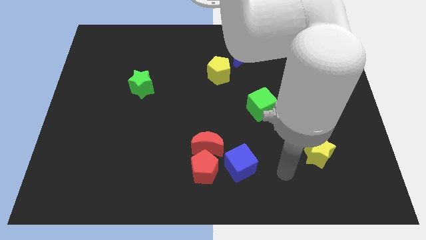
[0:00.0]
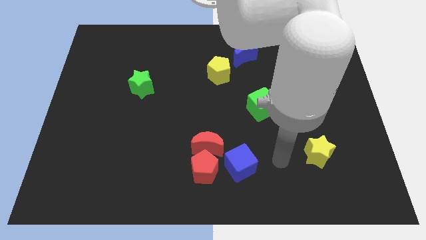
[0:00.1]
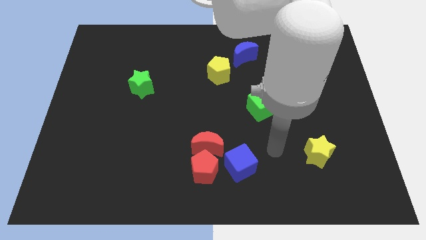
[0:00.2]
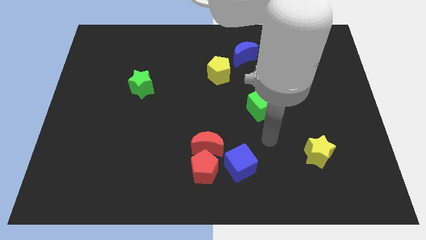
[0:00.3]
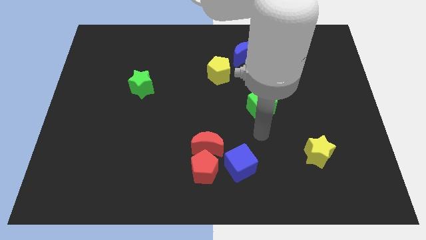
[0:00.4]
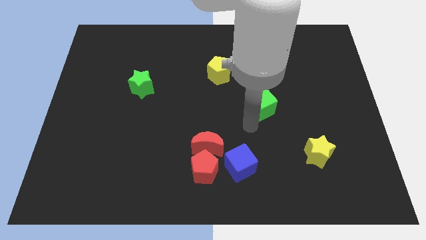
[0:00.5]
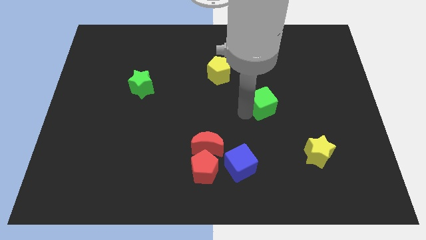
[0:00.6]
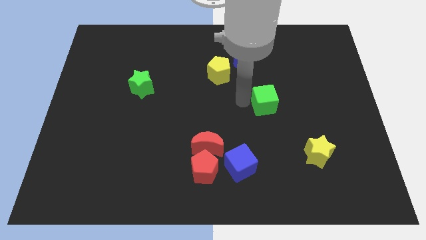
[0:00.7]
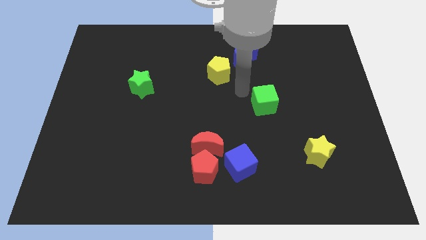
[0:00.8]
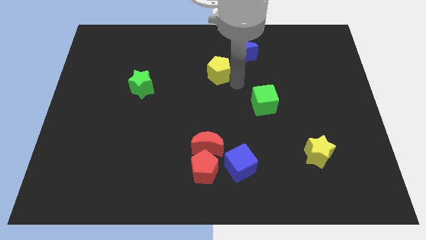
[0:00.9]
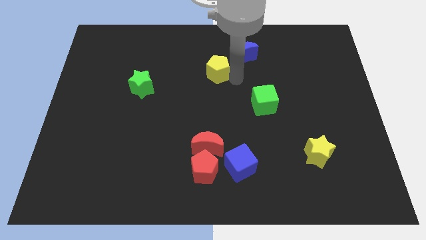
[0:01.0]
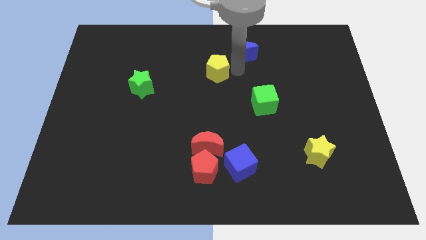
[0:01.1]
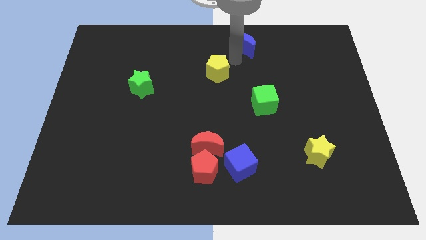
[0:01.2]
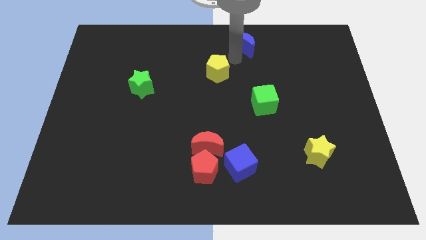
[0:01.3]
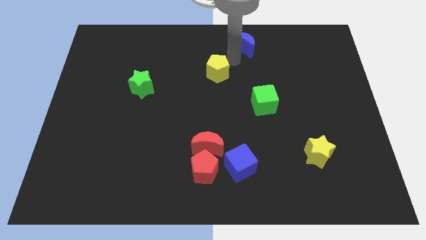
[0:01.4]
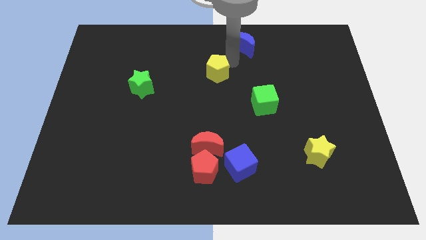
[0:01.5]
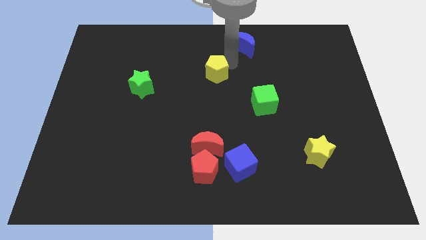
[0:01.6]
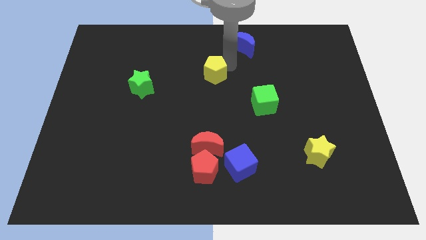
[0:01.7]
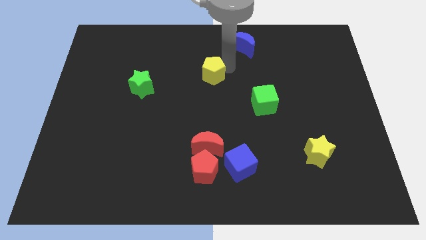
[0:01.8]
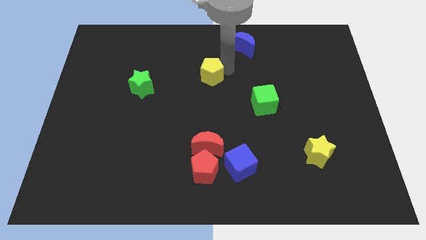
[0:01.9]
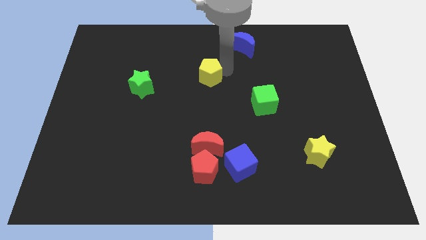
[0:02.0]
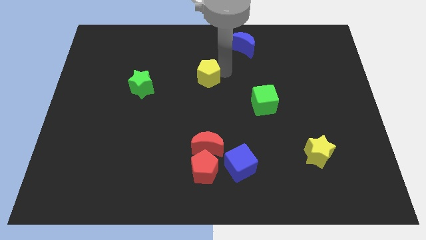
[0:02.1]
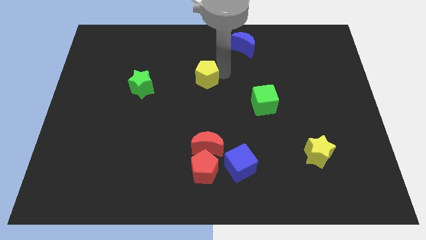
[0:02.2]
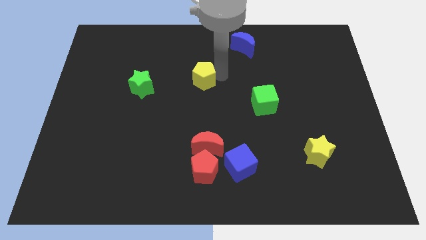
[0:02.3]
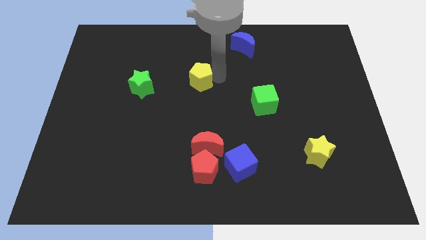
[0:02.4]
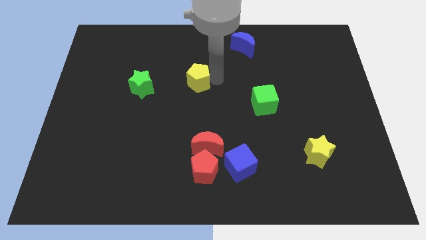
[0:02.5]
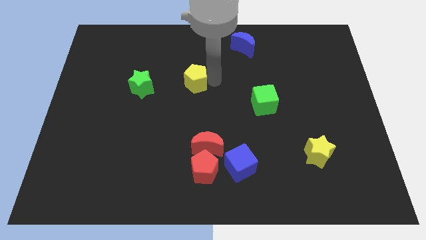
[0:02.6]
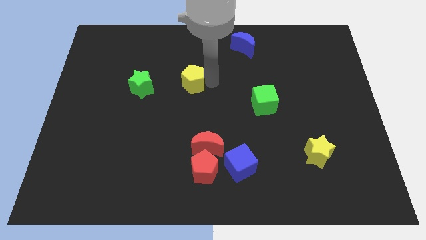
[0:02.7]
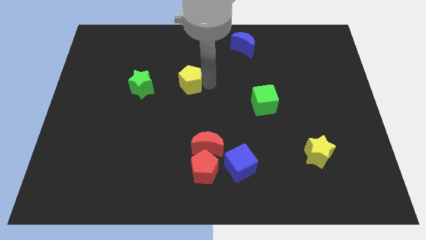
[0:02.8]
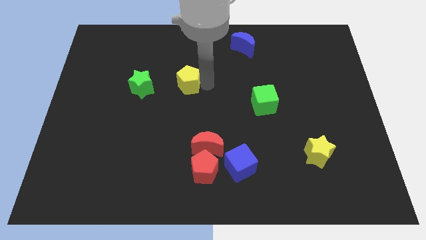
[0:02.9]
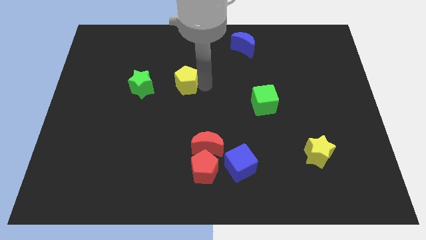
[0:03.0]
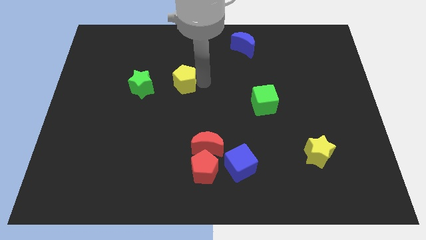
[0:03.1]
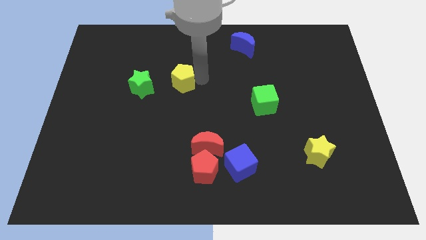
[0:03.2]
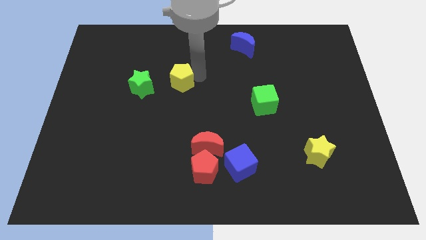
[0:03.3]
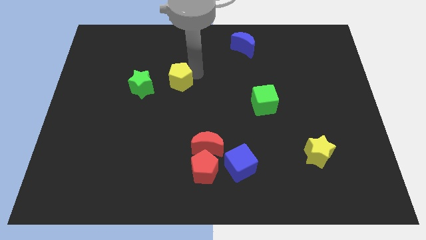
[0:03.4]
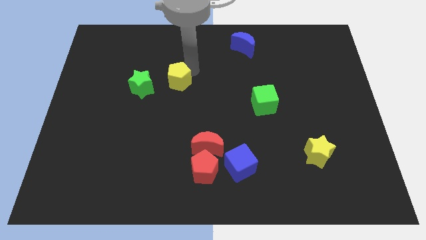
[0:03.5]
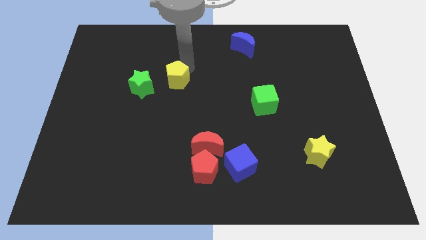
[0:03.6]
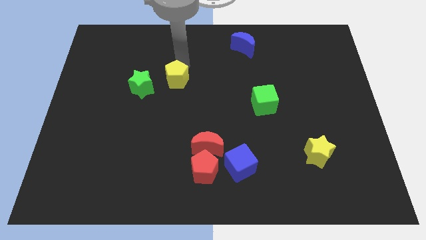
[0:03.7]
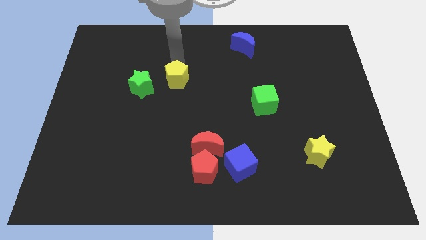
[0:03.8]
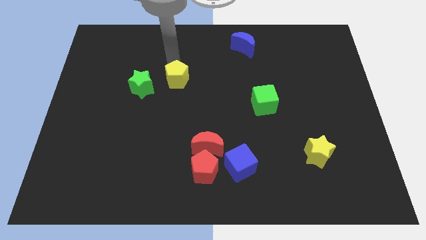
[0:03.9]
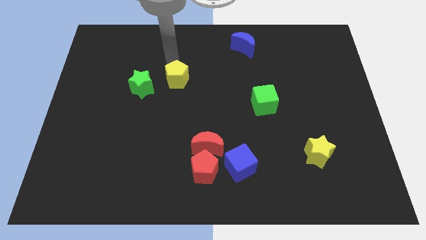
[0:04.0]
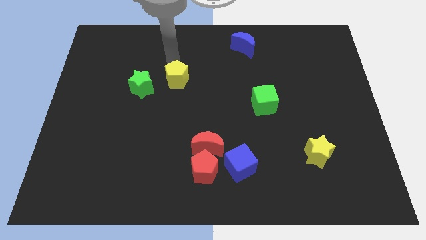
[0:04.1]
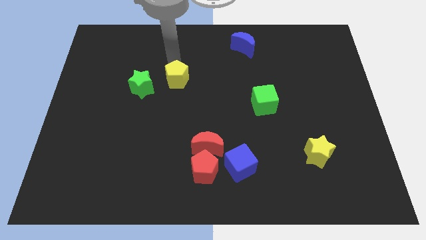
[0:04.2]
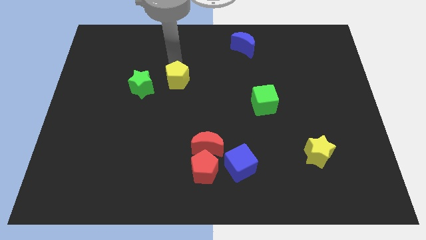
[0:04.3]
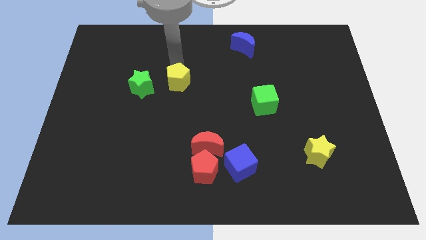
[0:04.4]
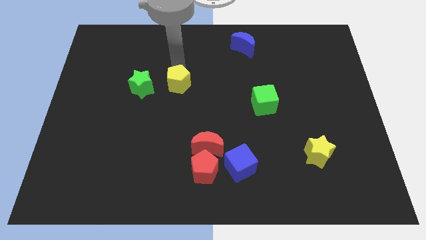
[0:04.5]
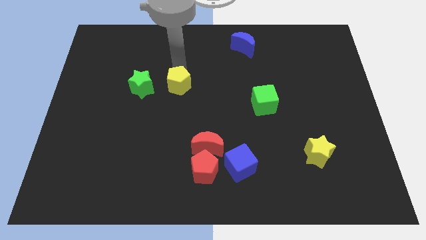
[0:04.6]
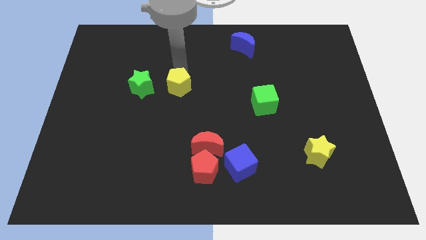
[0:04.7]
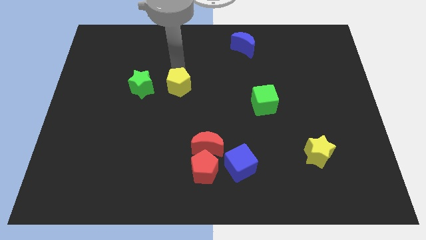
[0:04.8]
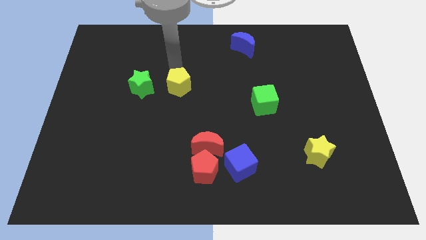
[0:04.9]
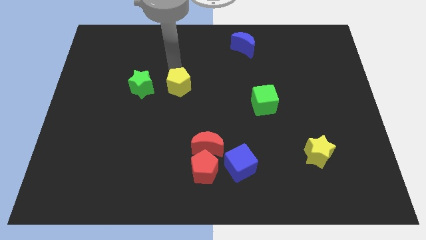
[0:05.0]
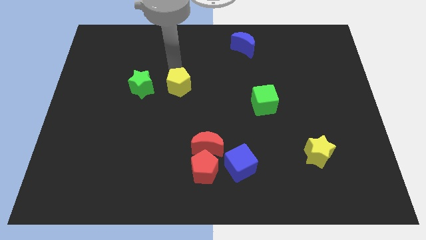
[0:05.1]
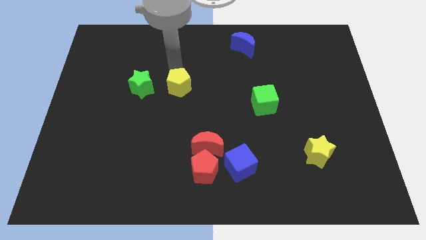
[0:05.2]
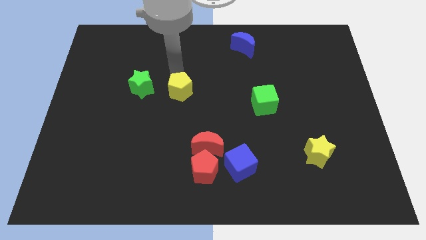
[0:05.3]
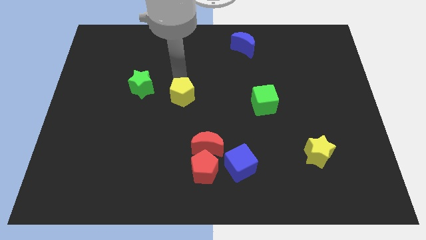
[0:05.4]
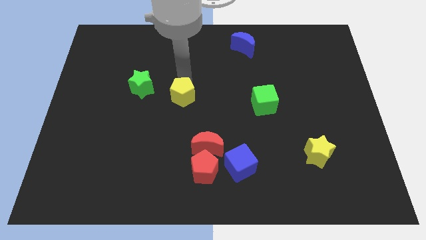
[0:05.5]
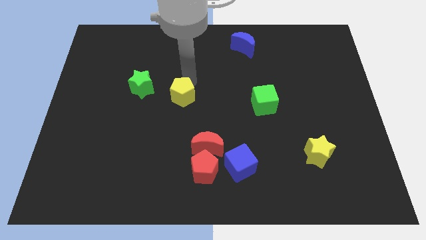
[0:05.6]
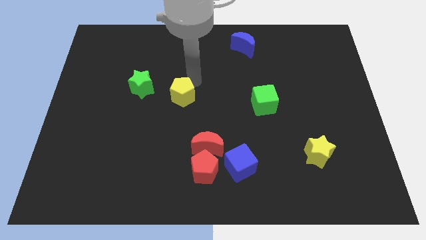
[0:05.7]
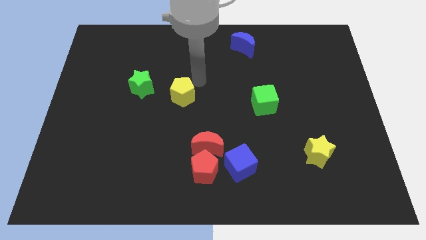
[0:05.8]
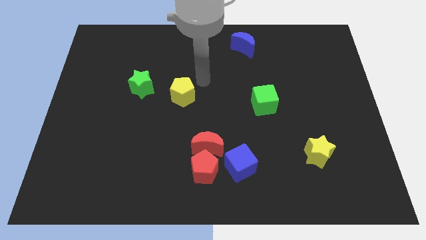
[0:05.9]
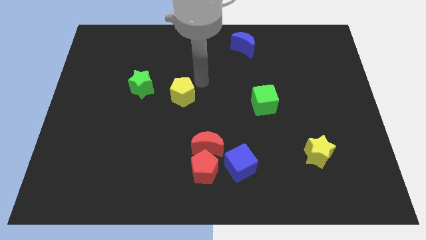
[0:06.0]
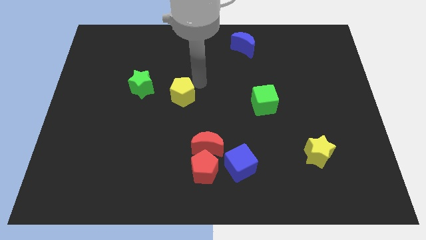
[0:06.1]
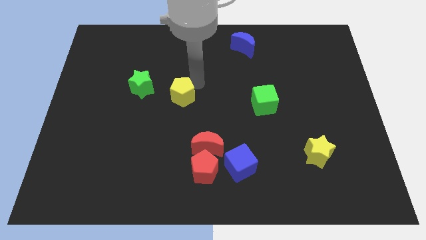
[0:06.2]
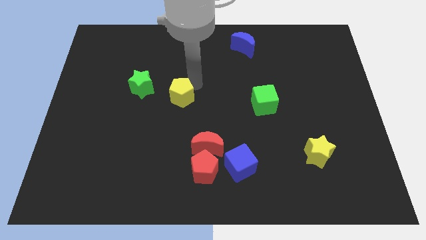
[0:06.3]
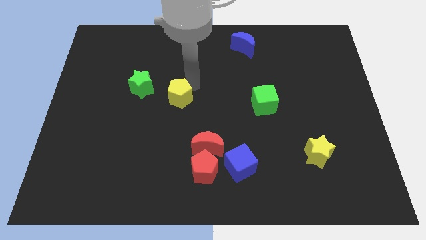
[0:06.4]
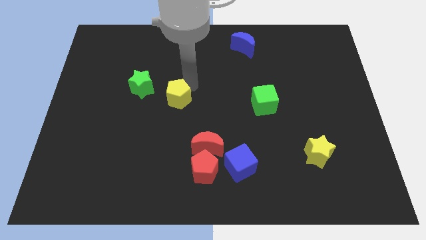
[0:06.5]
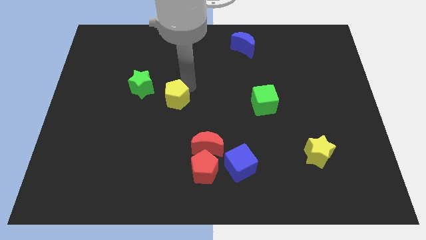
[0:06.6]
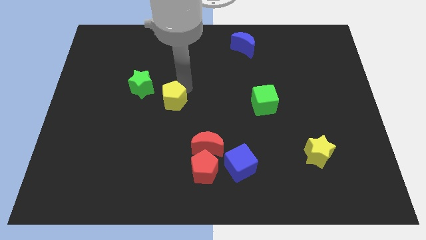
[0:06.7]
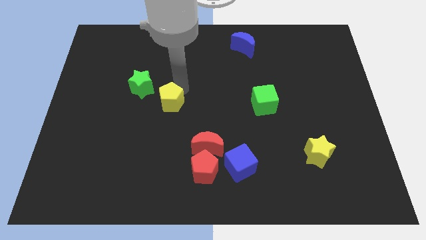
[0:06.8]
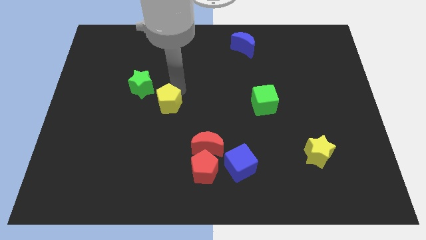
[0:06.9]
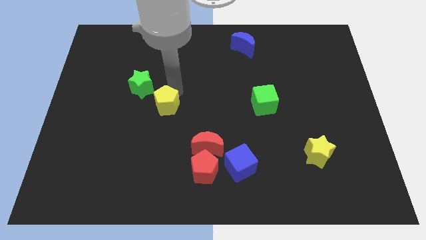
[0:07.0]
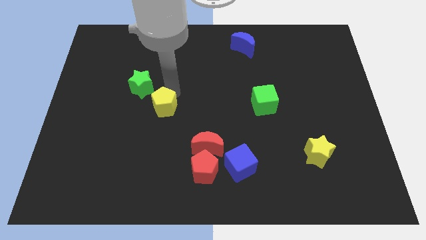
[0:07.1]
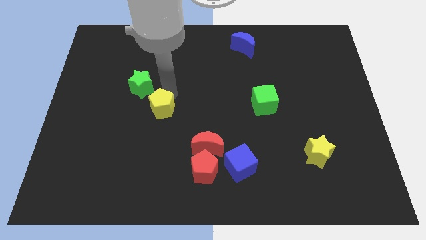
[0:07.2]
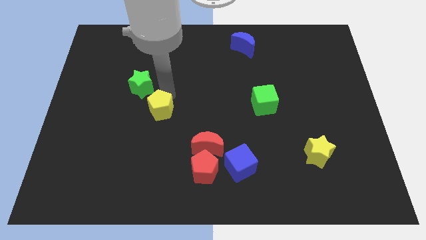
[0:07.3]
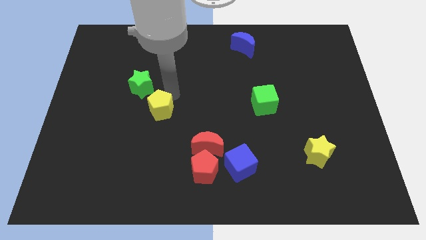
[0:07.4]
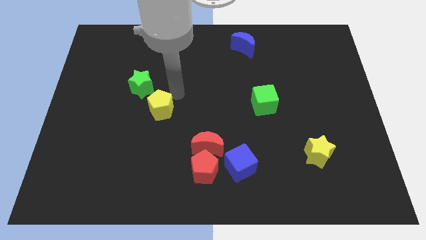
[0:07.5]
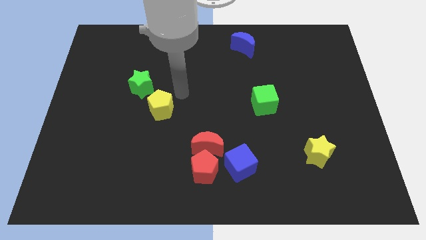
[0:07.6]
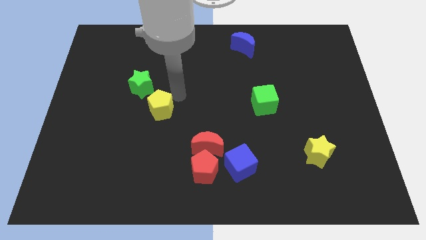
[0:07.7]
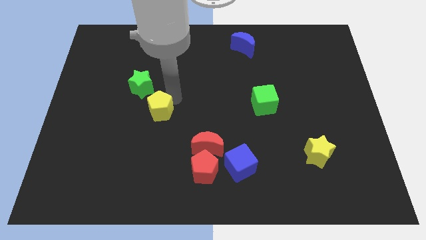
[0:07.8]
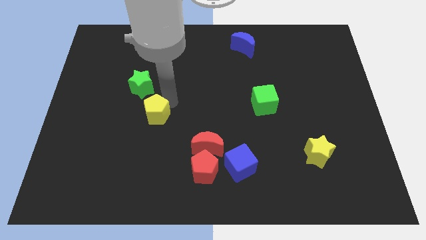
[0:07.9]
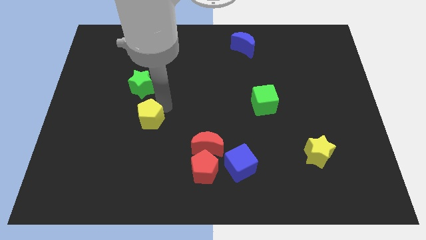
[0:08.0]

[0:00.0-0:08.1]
push the yellow pentagon diagonally downwards and to the left
